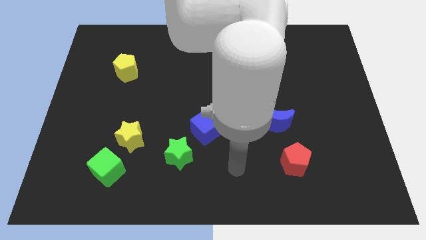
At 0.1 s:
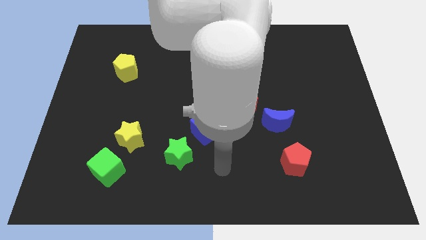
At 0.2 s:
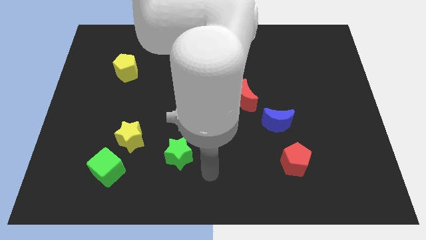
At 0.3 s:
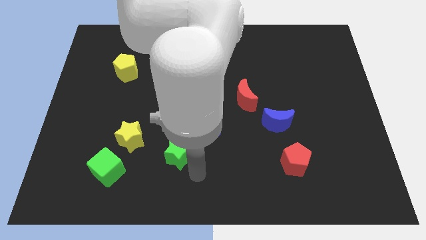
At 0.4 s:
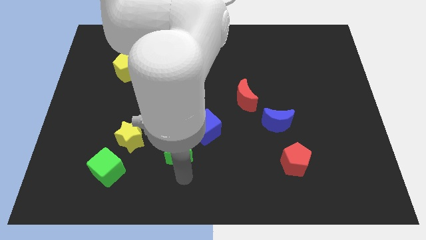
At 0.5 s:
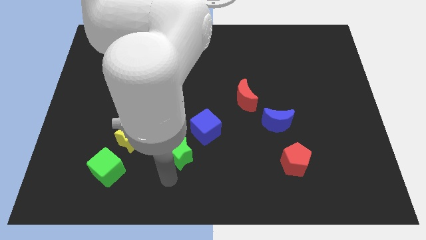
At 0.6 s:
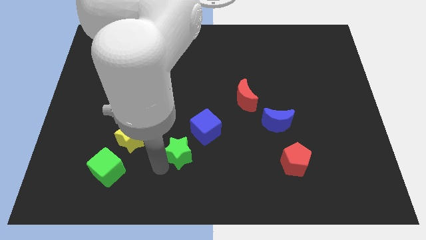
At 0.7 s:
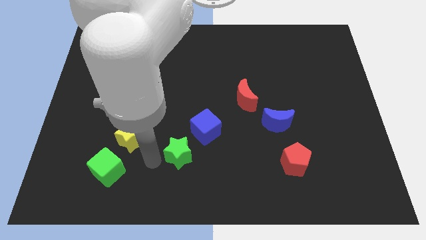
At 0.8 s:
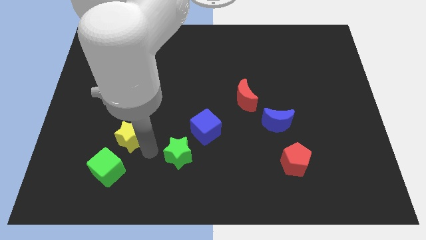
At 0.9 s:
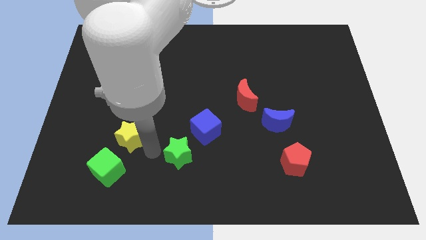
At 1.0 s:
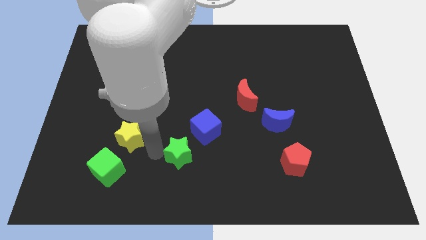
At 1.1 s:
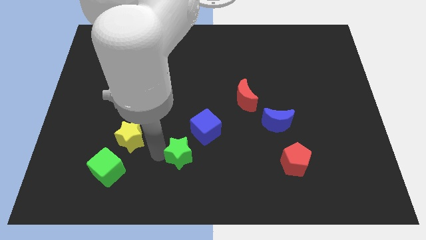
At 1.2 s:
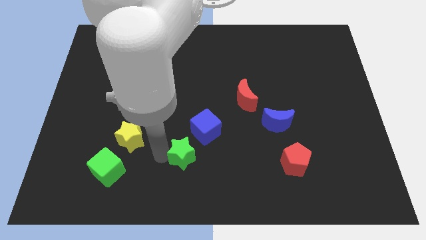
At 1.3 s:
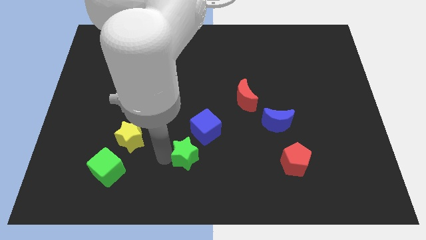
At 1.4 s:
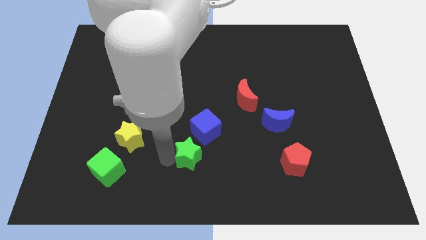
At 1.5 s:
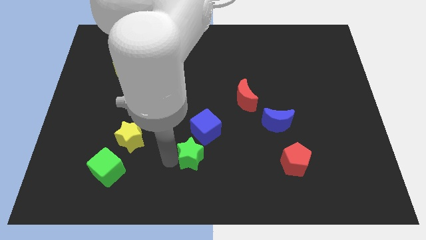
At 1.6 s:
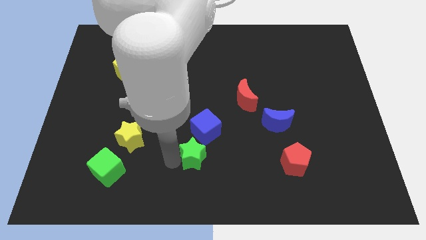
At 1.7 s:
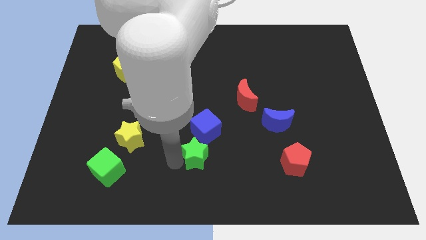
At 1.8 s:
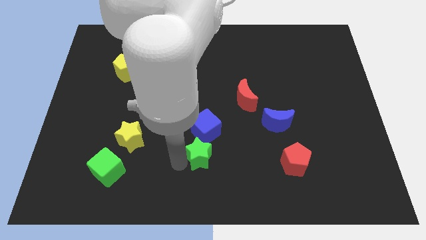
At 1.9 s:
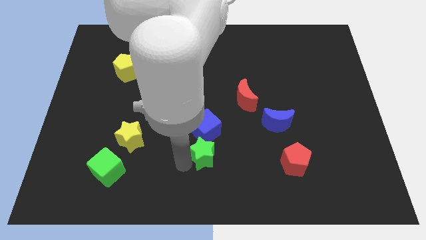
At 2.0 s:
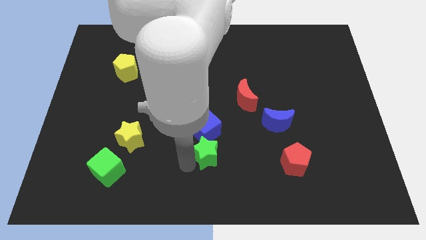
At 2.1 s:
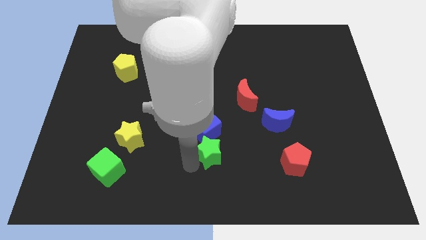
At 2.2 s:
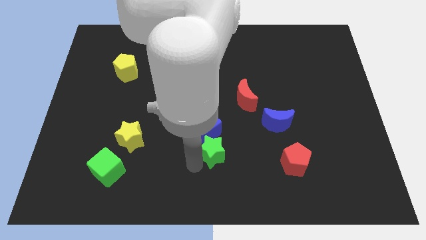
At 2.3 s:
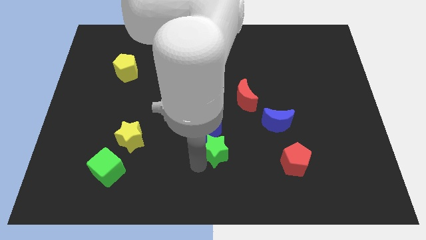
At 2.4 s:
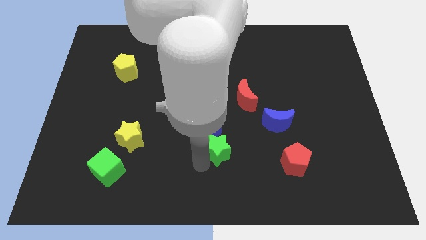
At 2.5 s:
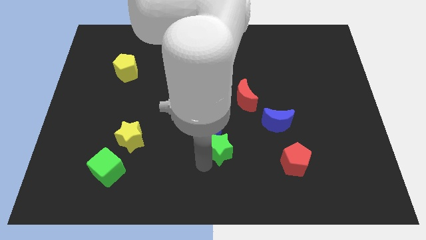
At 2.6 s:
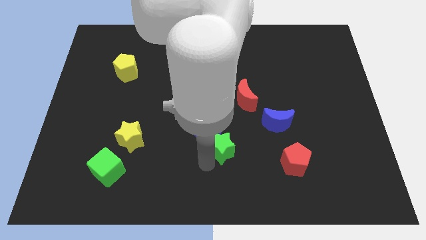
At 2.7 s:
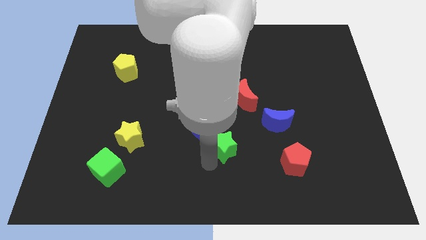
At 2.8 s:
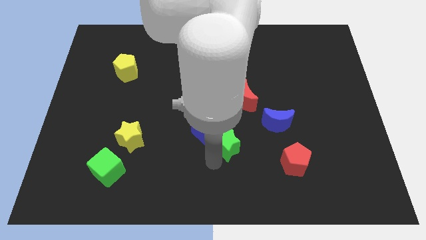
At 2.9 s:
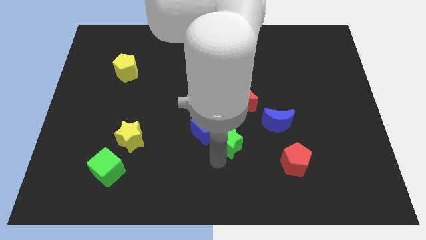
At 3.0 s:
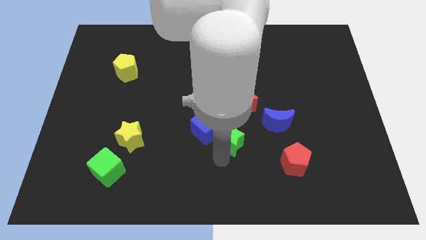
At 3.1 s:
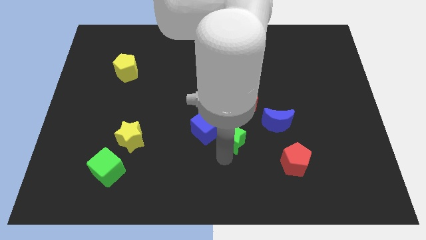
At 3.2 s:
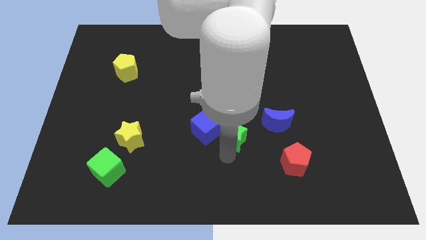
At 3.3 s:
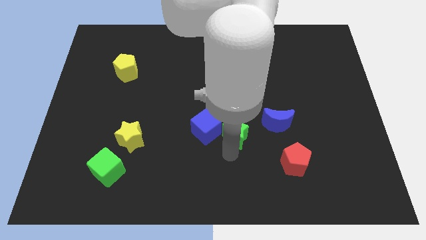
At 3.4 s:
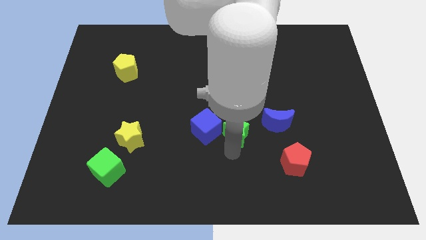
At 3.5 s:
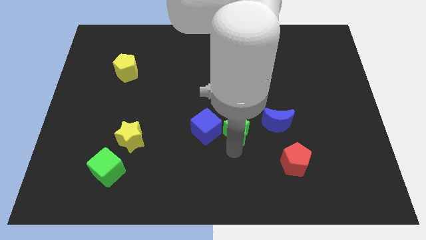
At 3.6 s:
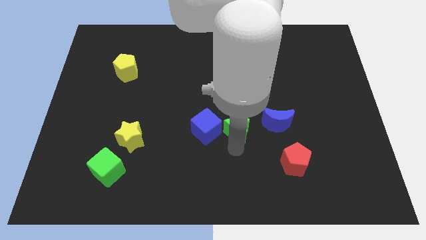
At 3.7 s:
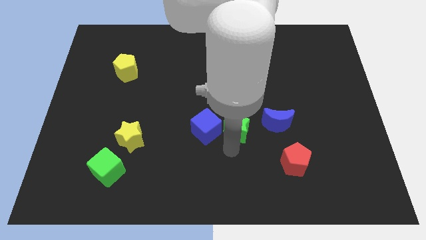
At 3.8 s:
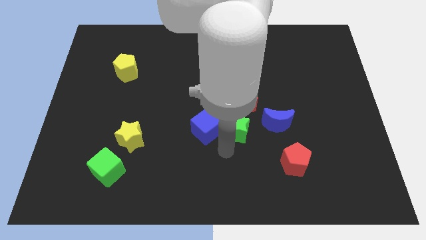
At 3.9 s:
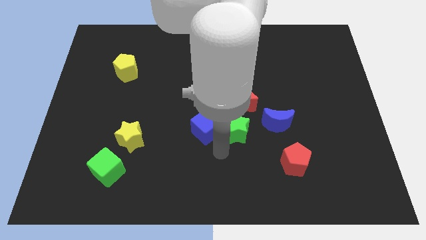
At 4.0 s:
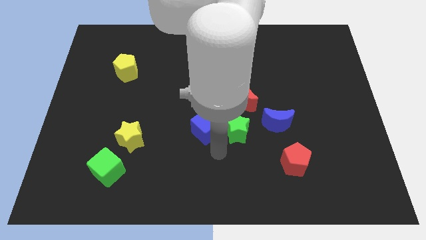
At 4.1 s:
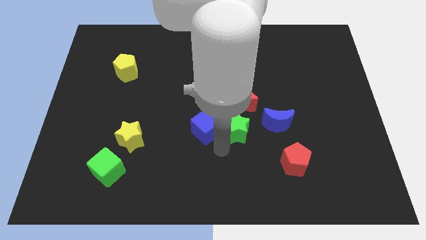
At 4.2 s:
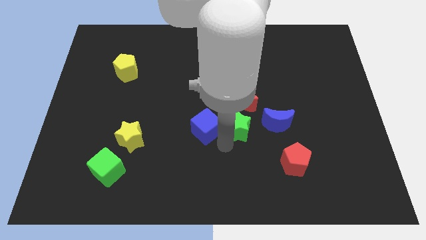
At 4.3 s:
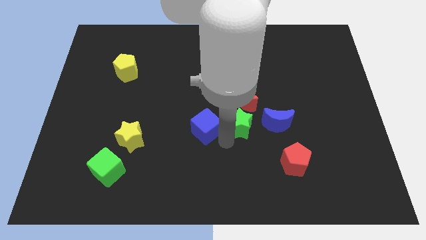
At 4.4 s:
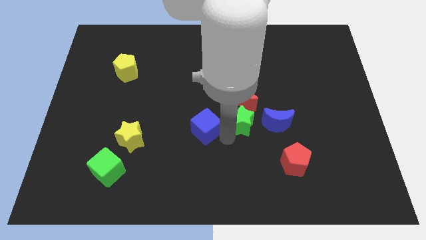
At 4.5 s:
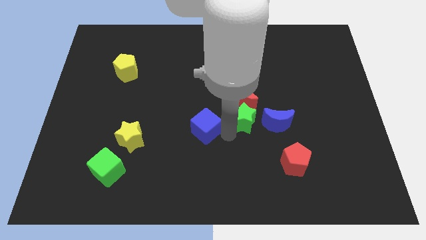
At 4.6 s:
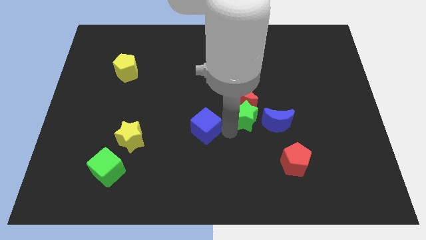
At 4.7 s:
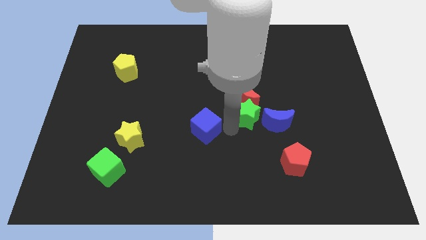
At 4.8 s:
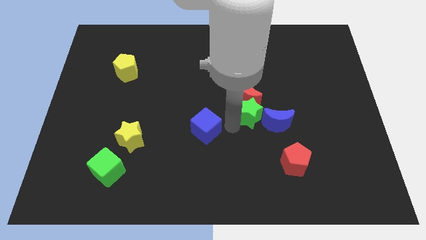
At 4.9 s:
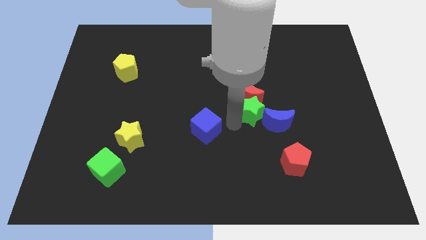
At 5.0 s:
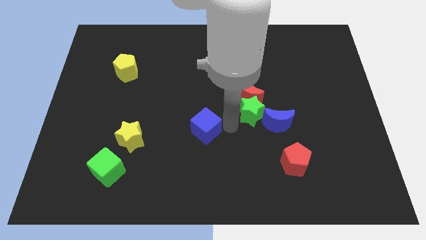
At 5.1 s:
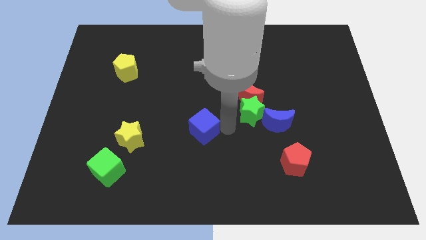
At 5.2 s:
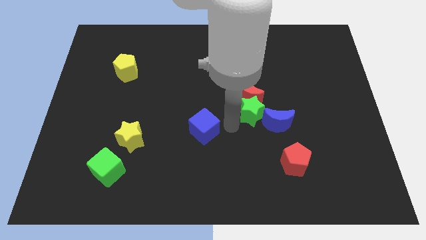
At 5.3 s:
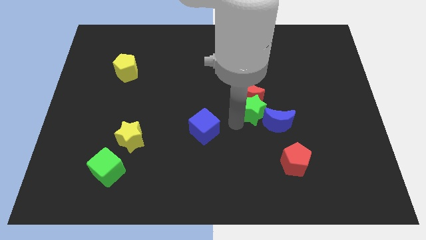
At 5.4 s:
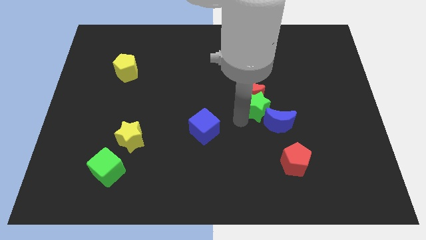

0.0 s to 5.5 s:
push the green star up and to the right diagonally

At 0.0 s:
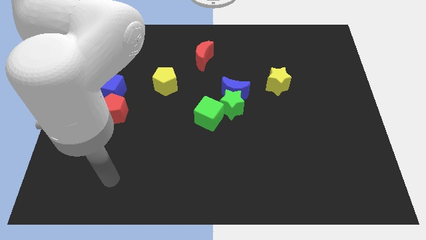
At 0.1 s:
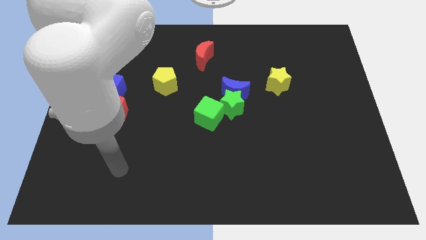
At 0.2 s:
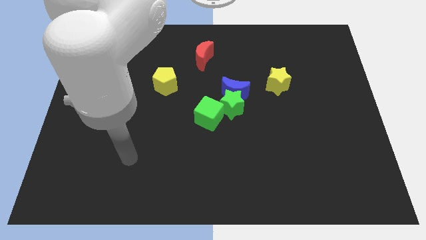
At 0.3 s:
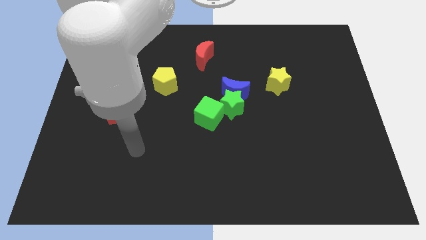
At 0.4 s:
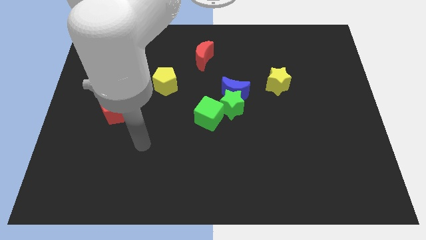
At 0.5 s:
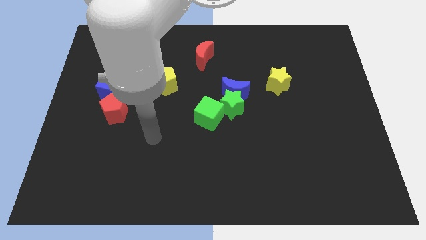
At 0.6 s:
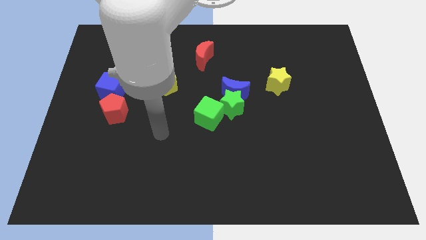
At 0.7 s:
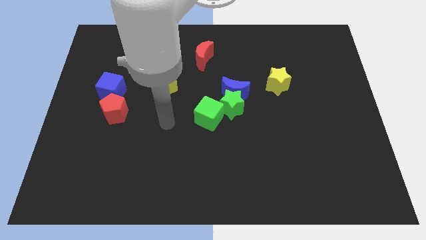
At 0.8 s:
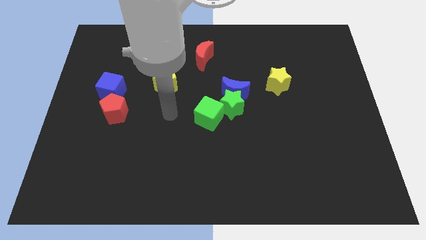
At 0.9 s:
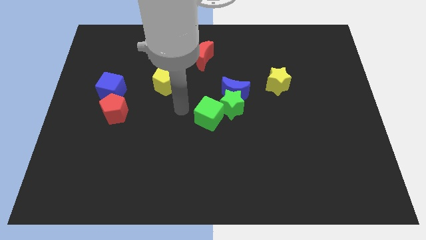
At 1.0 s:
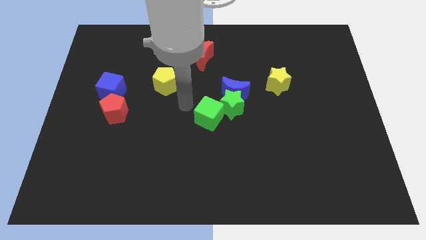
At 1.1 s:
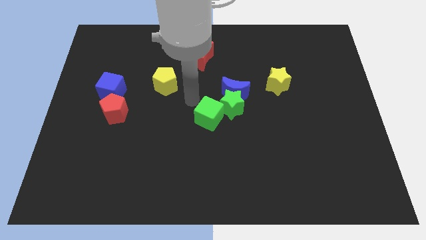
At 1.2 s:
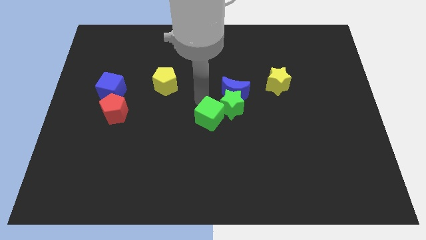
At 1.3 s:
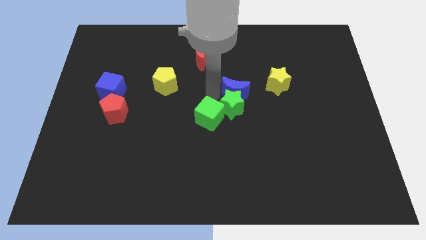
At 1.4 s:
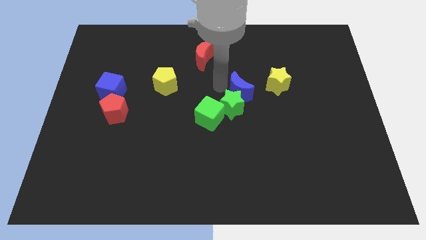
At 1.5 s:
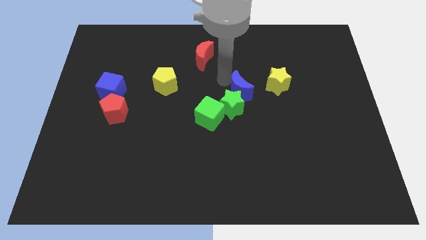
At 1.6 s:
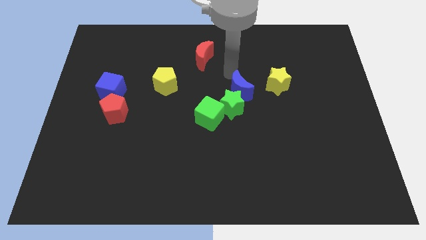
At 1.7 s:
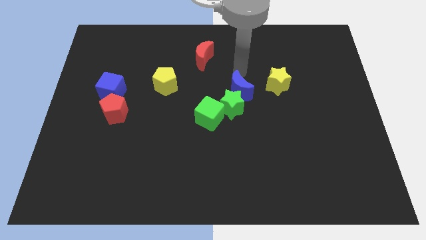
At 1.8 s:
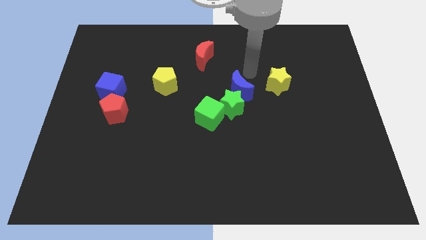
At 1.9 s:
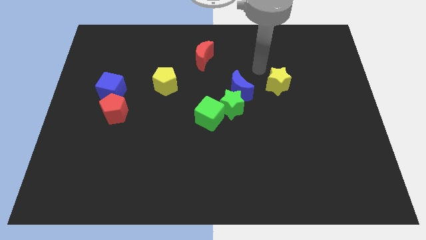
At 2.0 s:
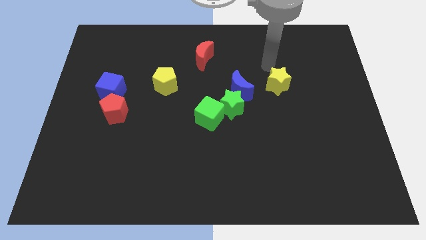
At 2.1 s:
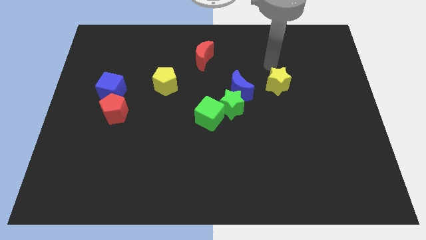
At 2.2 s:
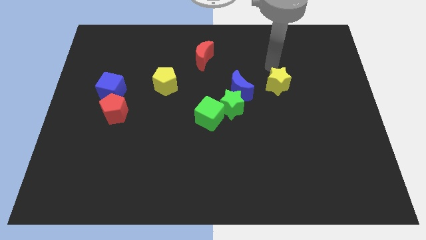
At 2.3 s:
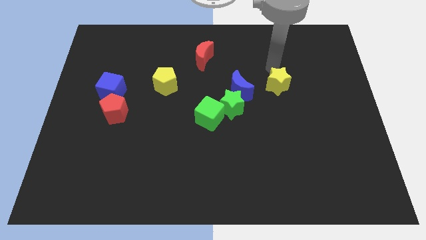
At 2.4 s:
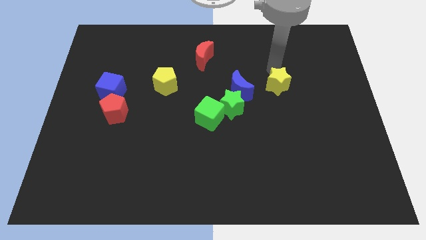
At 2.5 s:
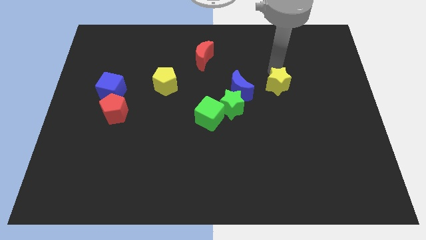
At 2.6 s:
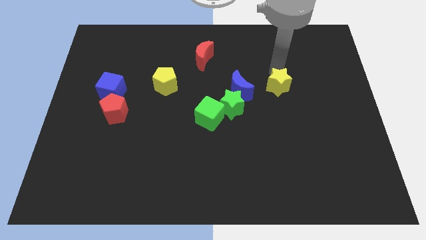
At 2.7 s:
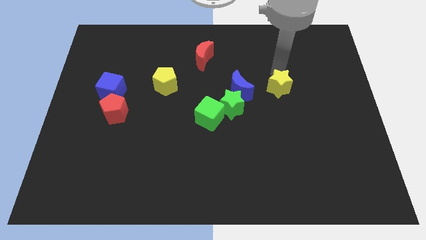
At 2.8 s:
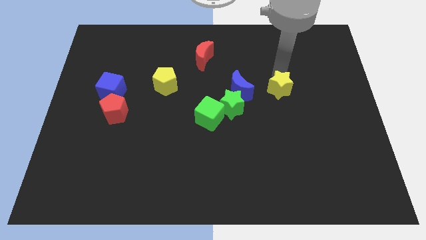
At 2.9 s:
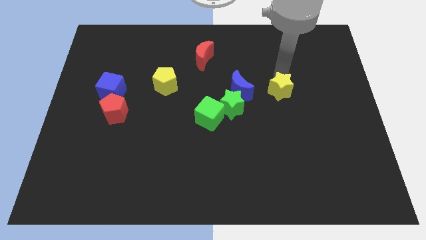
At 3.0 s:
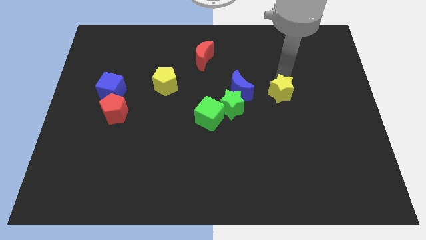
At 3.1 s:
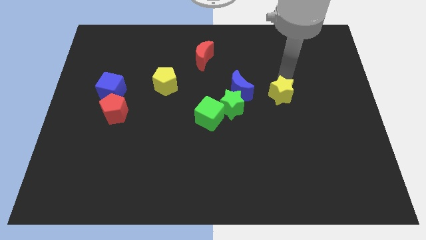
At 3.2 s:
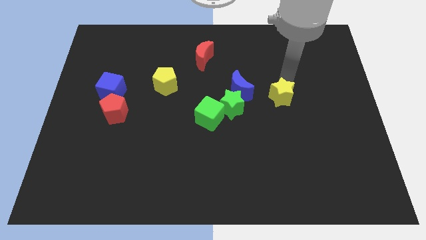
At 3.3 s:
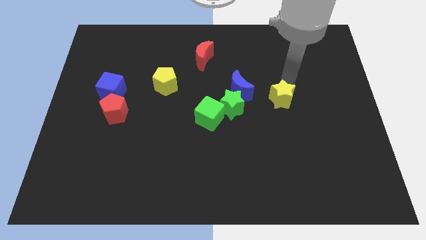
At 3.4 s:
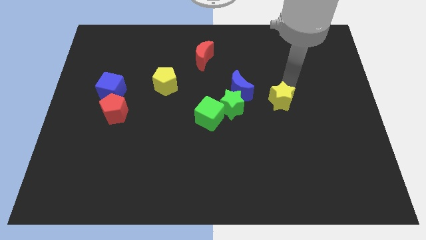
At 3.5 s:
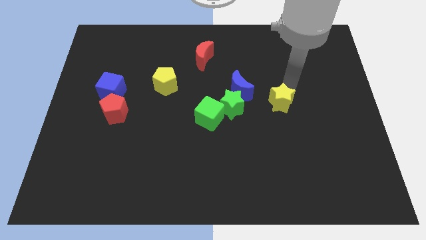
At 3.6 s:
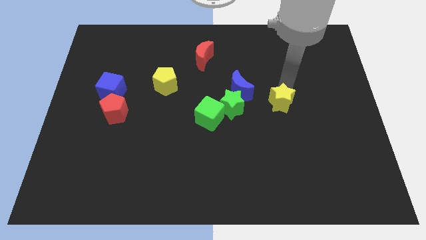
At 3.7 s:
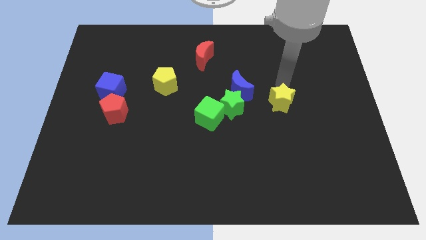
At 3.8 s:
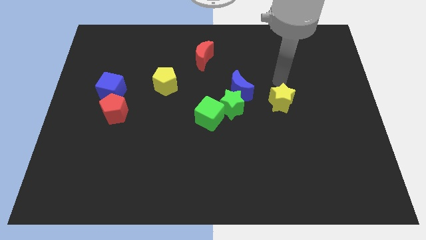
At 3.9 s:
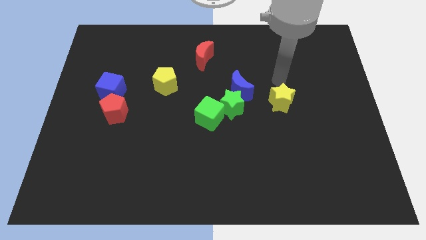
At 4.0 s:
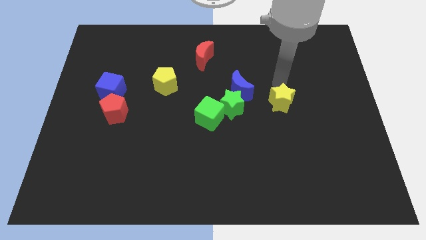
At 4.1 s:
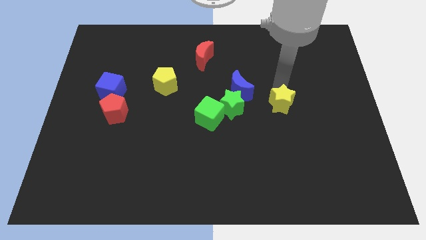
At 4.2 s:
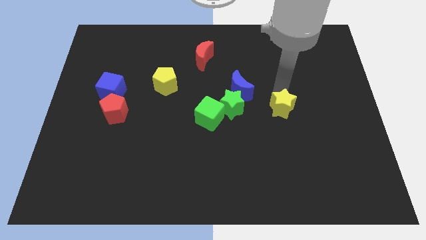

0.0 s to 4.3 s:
move the yellow star downwards a bit
